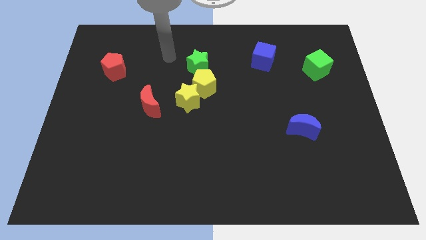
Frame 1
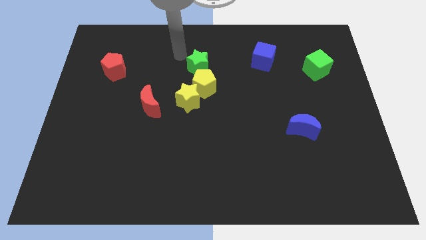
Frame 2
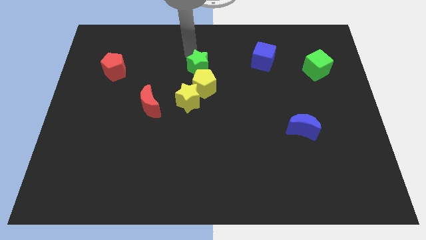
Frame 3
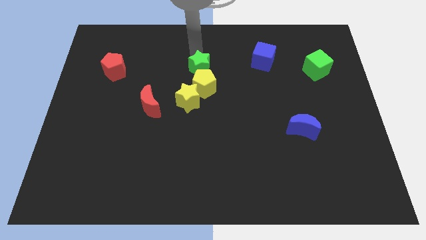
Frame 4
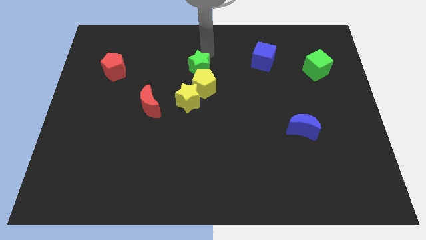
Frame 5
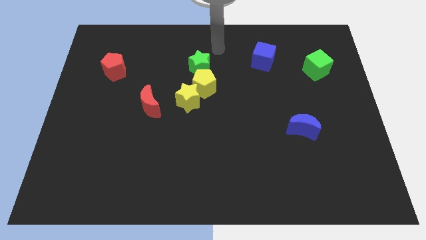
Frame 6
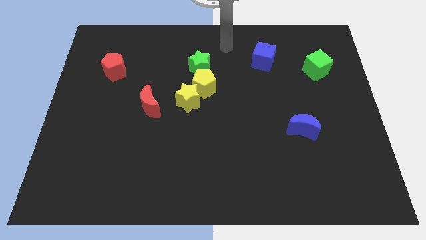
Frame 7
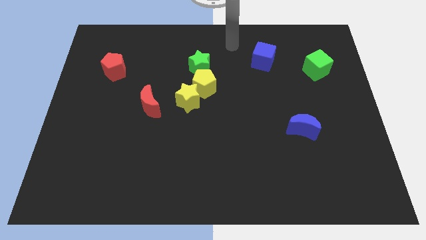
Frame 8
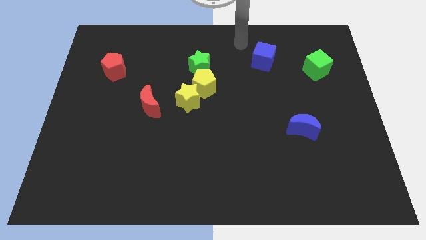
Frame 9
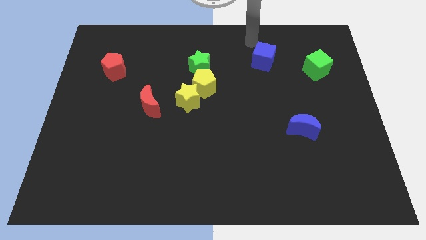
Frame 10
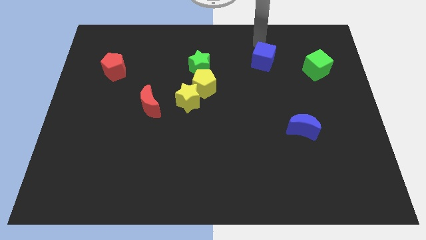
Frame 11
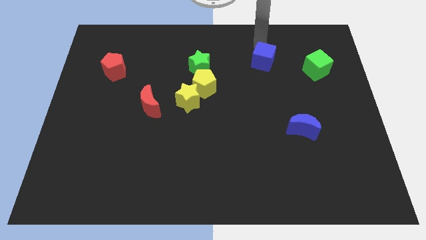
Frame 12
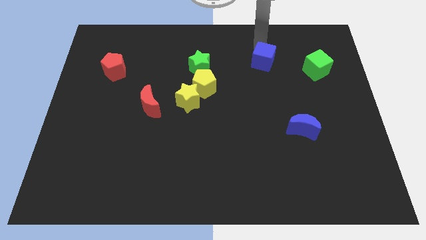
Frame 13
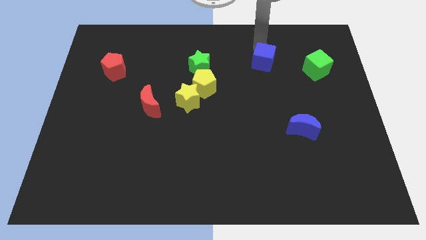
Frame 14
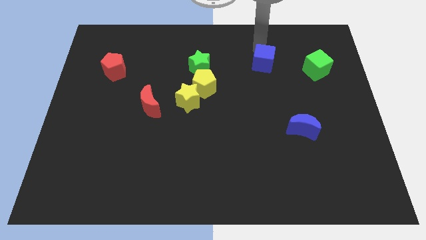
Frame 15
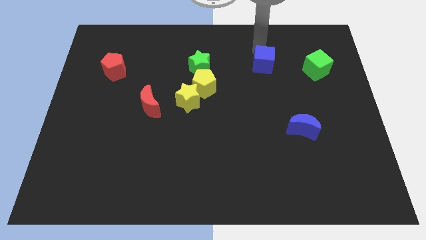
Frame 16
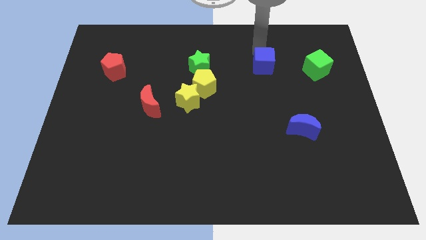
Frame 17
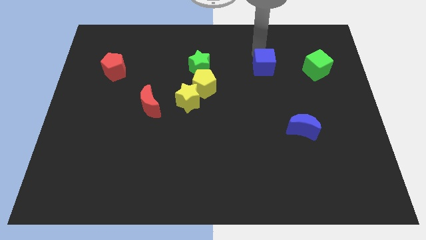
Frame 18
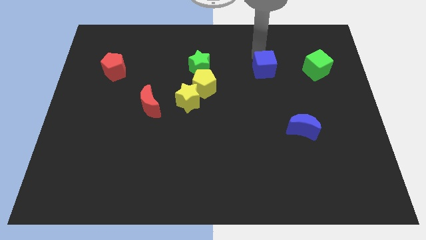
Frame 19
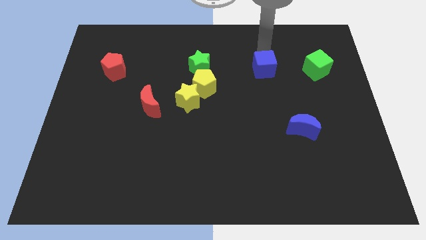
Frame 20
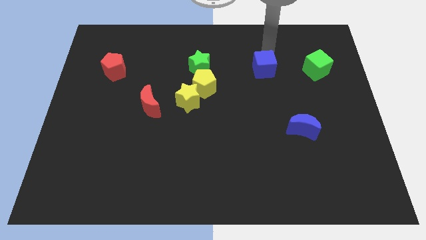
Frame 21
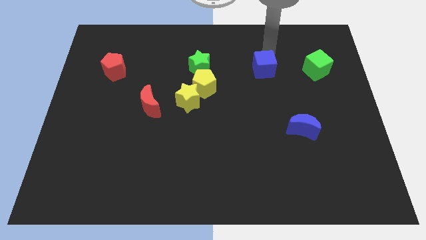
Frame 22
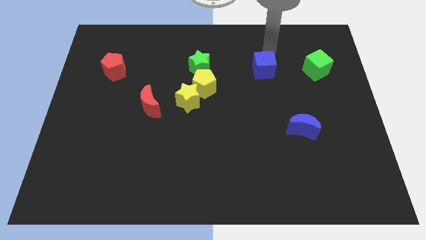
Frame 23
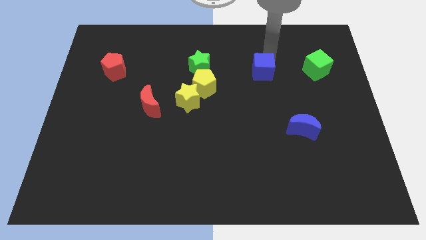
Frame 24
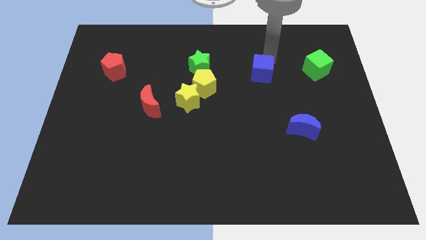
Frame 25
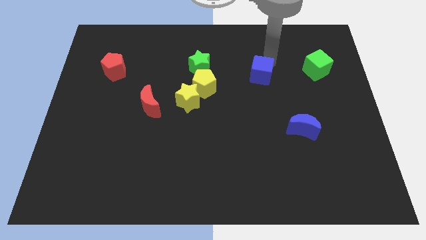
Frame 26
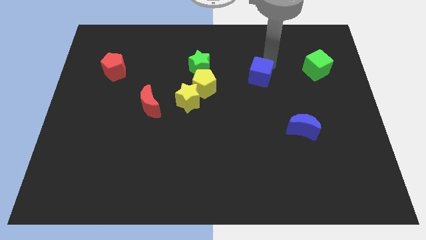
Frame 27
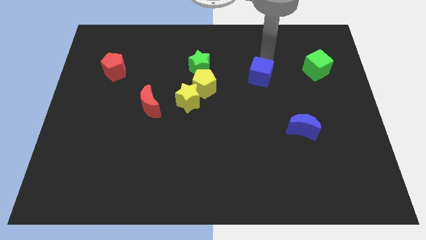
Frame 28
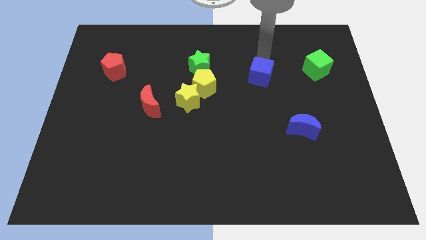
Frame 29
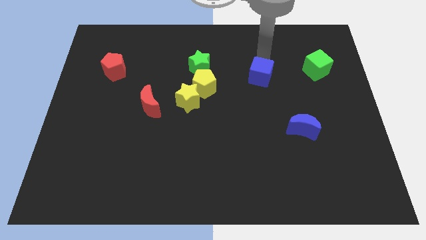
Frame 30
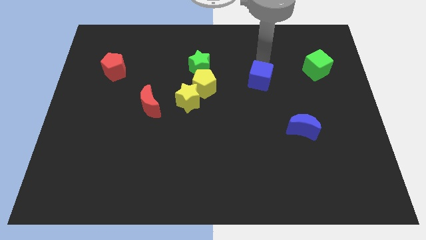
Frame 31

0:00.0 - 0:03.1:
slightly slide the blue cube downwards

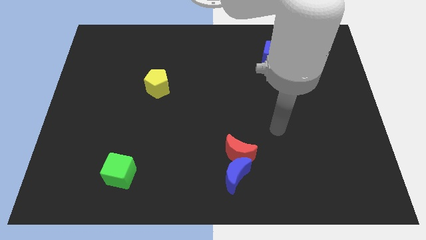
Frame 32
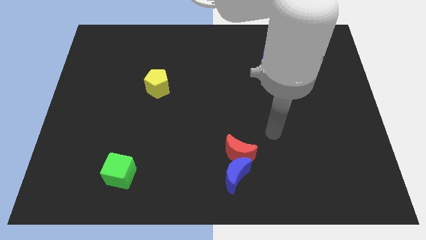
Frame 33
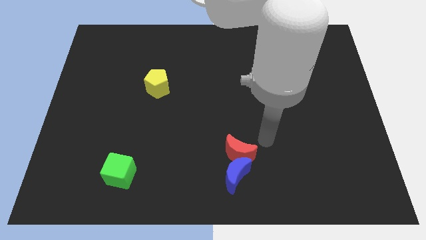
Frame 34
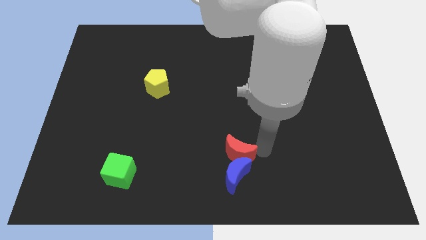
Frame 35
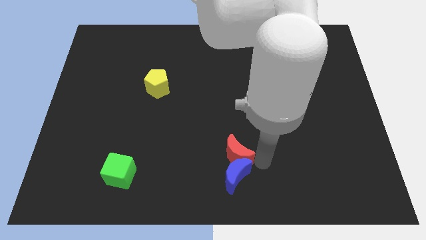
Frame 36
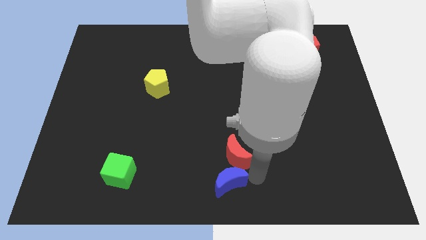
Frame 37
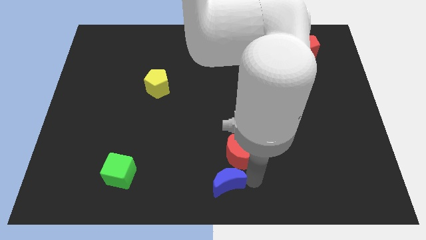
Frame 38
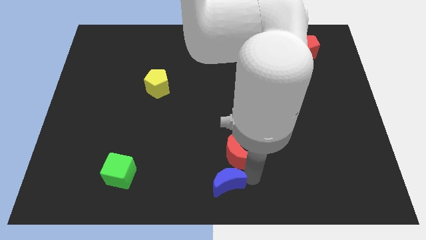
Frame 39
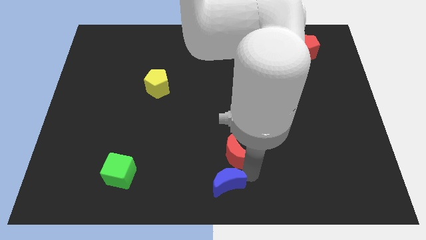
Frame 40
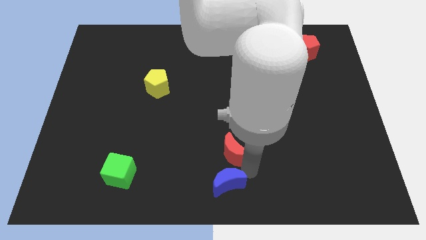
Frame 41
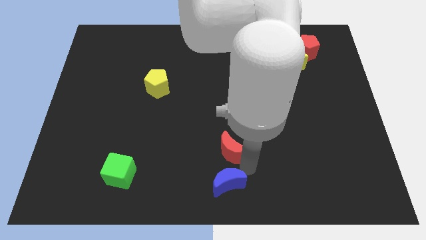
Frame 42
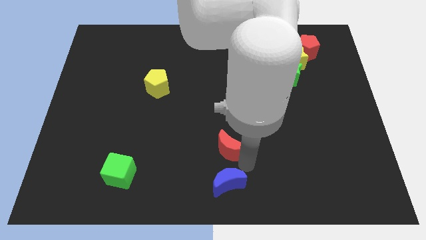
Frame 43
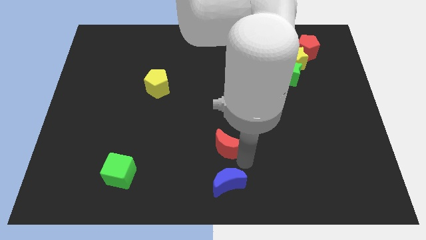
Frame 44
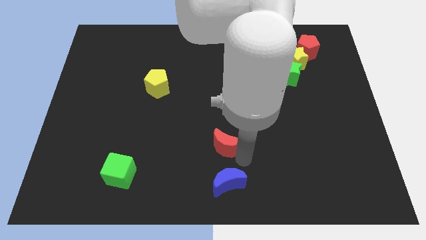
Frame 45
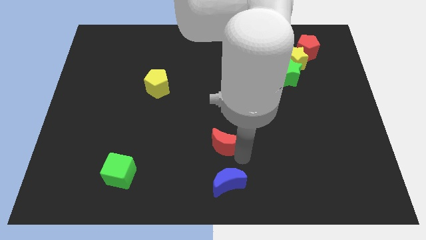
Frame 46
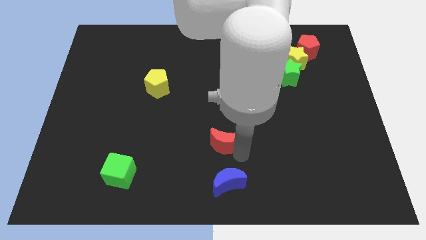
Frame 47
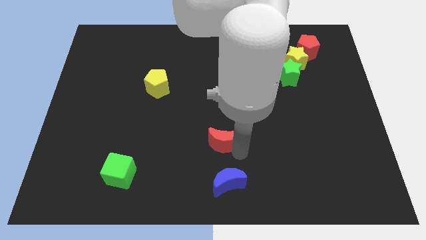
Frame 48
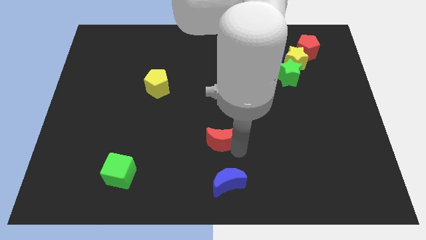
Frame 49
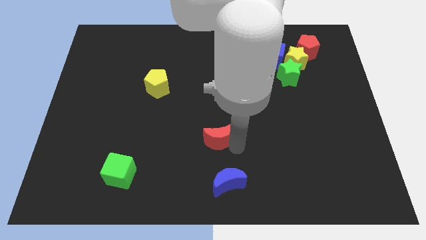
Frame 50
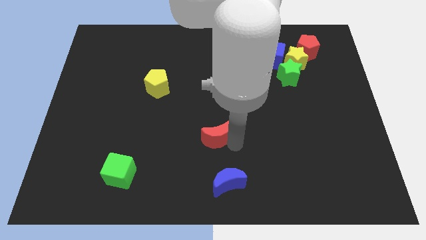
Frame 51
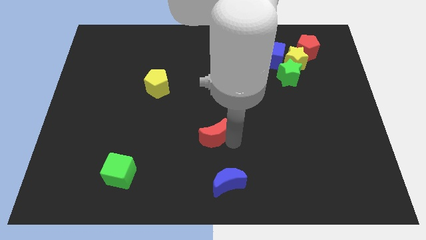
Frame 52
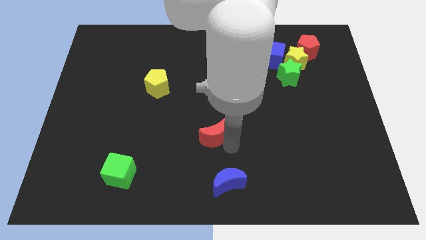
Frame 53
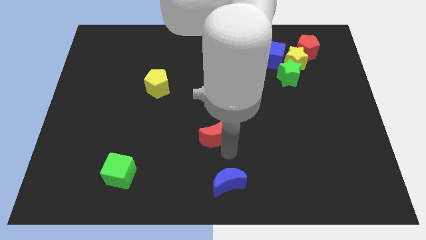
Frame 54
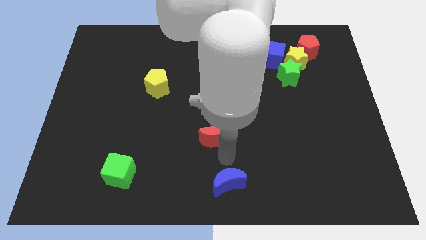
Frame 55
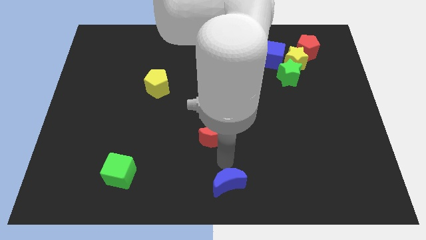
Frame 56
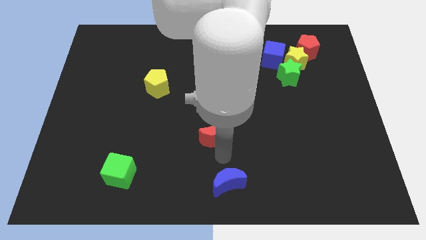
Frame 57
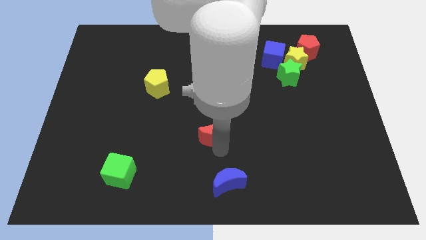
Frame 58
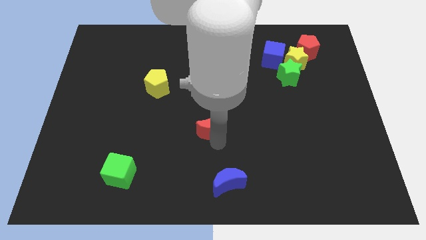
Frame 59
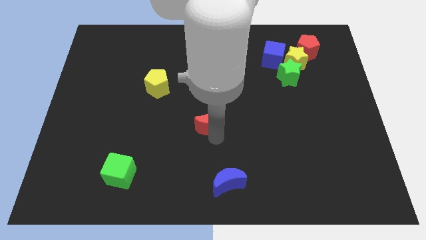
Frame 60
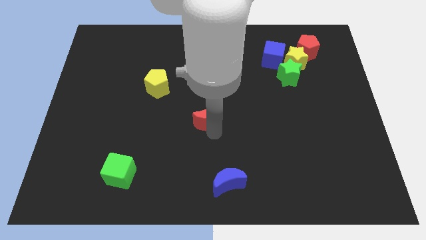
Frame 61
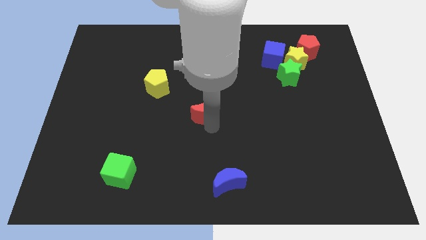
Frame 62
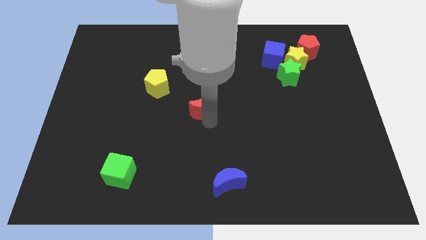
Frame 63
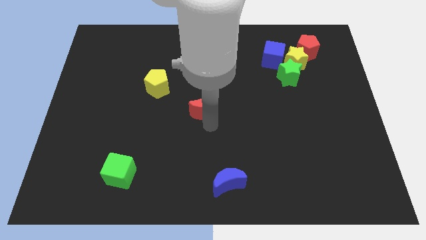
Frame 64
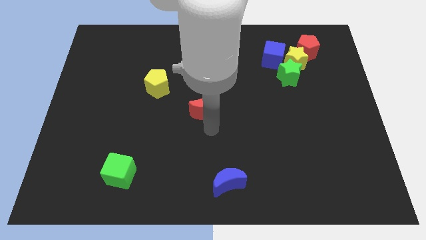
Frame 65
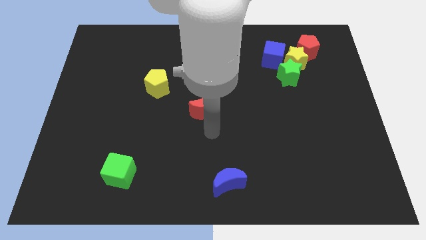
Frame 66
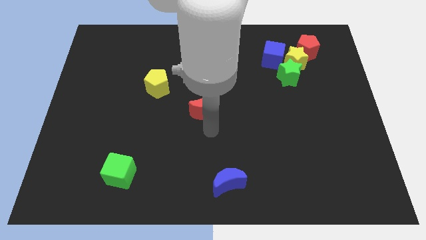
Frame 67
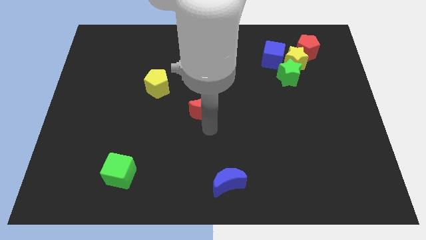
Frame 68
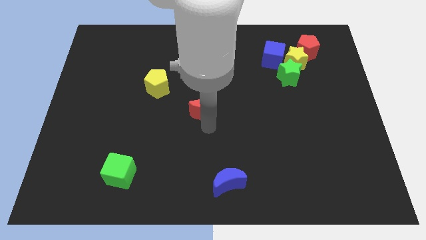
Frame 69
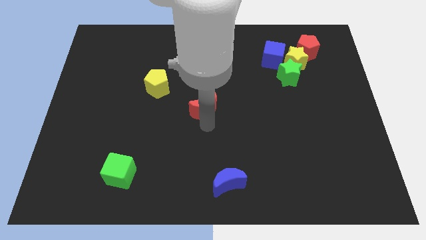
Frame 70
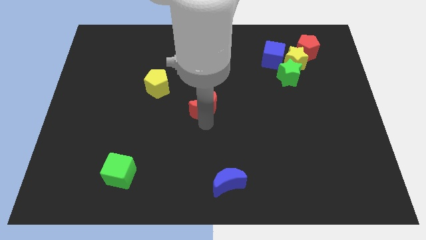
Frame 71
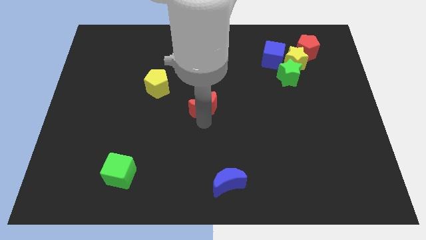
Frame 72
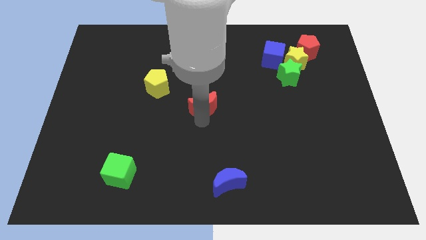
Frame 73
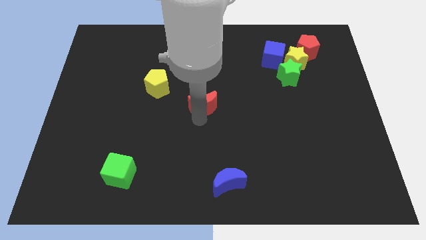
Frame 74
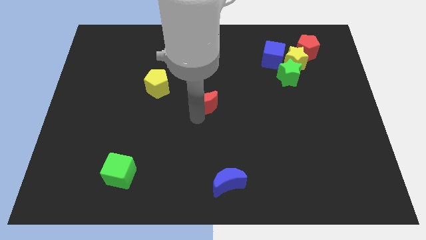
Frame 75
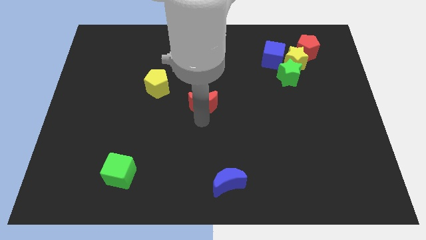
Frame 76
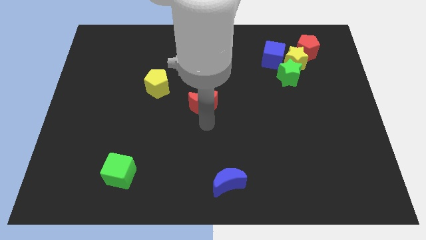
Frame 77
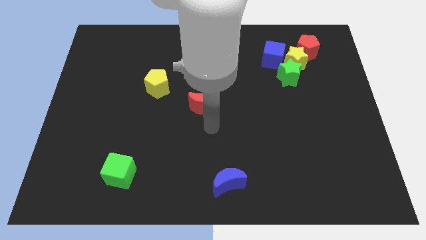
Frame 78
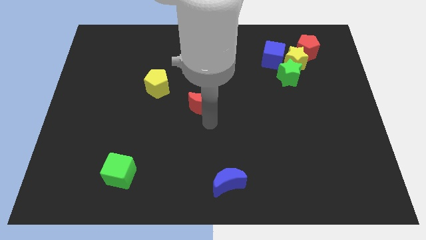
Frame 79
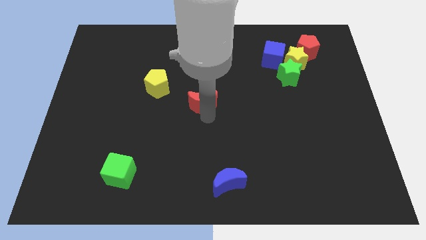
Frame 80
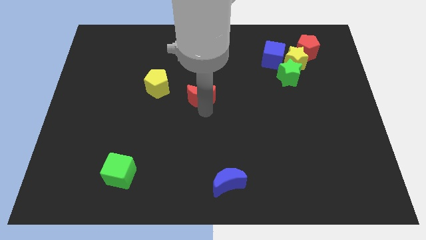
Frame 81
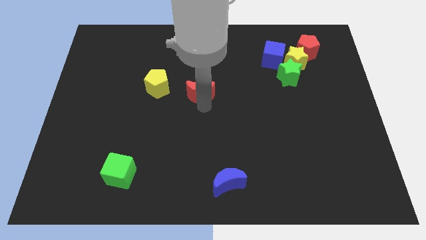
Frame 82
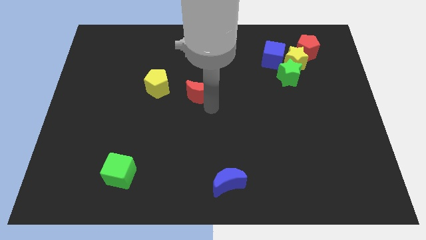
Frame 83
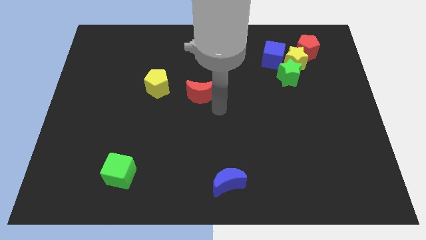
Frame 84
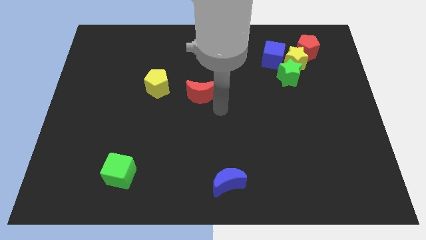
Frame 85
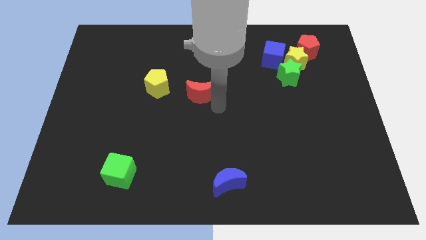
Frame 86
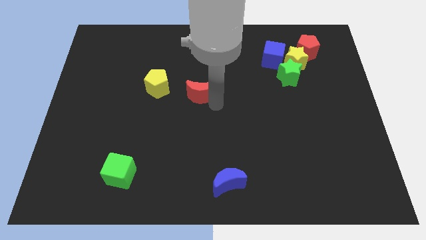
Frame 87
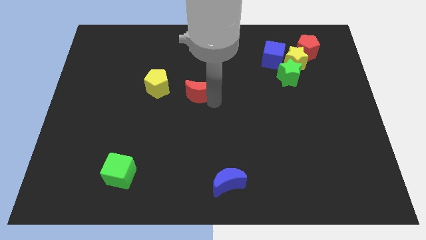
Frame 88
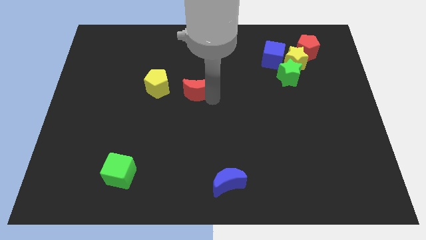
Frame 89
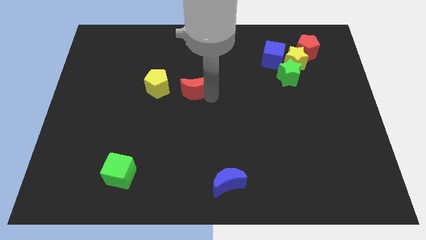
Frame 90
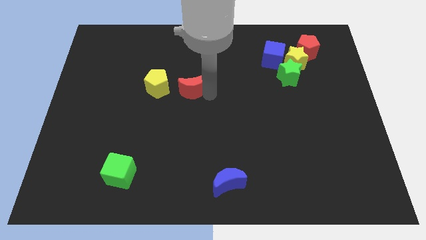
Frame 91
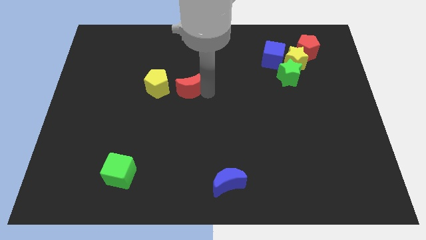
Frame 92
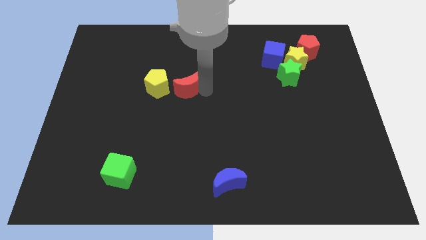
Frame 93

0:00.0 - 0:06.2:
move the red moon diagonally up and to the left
